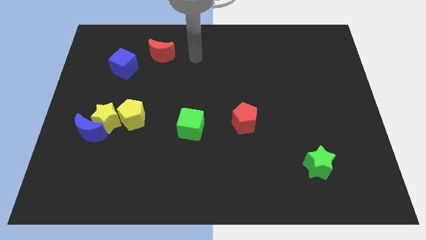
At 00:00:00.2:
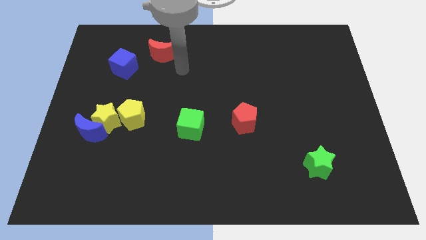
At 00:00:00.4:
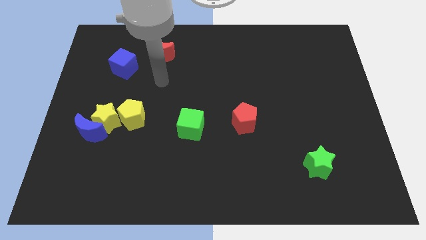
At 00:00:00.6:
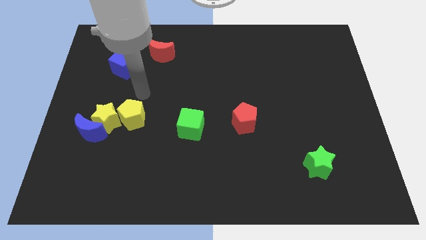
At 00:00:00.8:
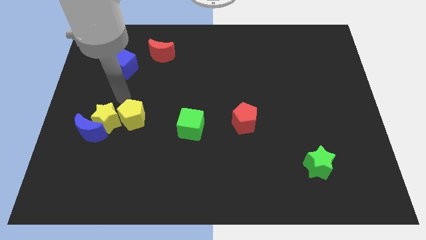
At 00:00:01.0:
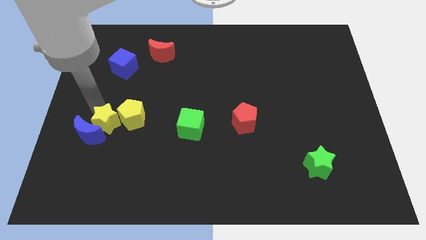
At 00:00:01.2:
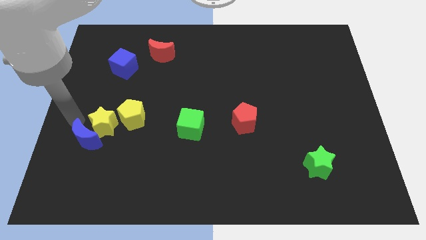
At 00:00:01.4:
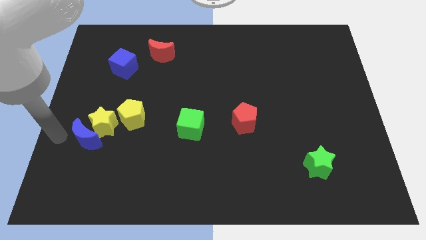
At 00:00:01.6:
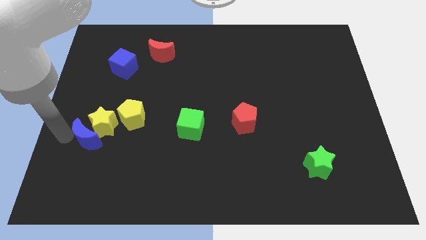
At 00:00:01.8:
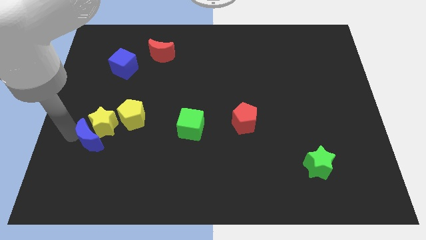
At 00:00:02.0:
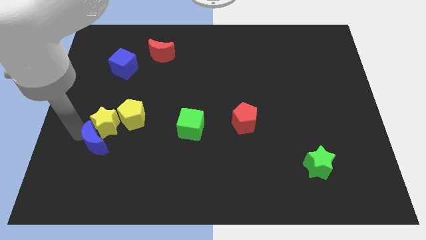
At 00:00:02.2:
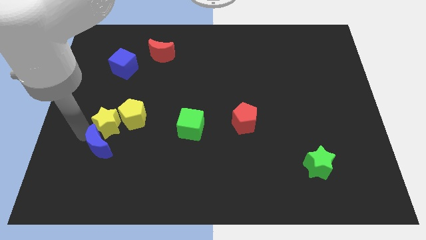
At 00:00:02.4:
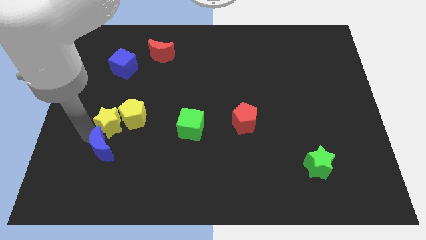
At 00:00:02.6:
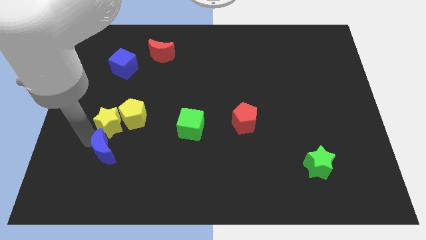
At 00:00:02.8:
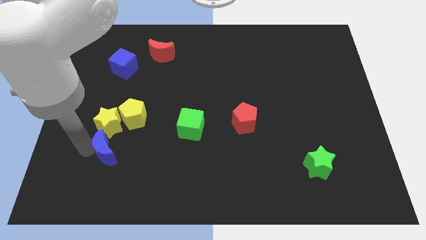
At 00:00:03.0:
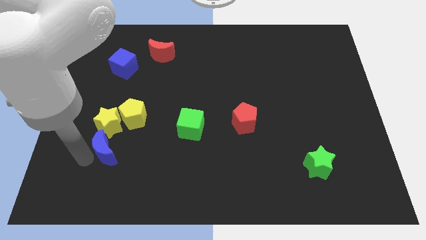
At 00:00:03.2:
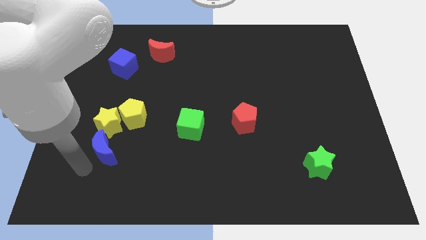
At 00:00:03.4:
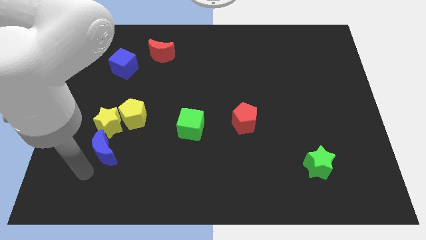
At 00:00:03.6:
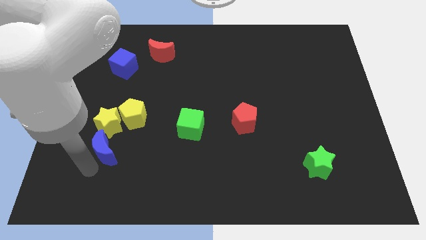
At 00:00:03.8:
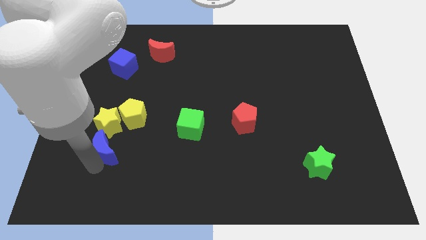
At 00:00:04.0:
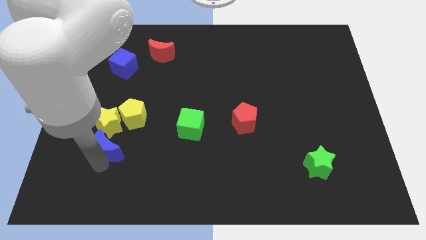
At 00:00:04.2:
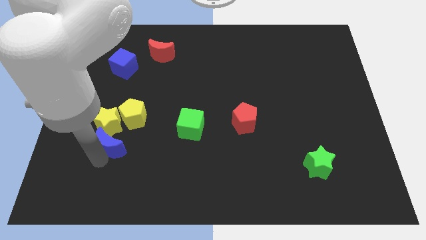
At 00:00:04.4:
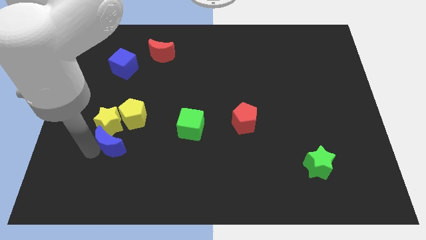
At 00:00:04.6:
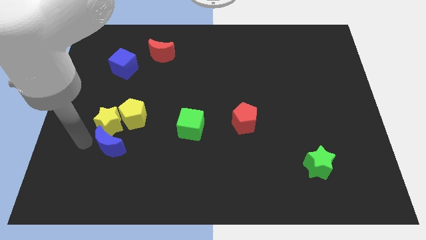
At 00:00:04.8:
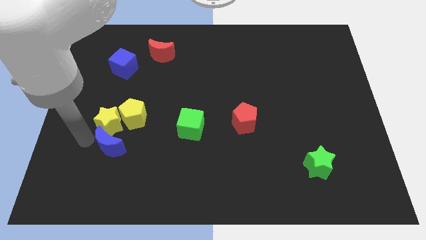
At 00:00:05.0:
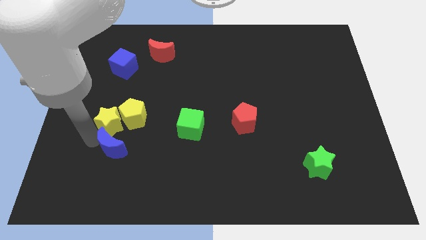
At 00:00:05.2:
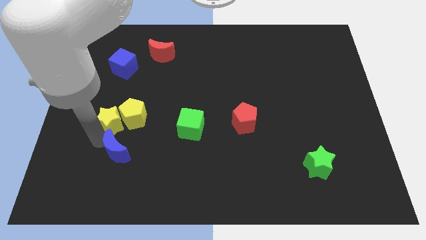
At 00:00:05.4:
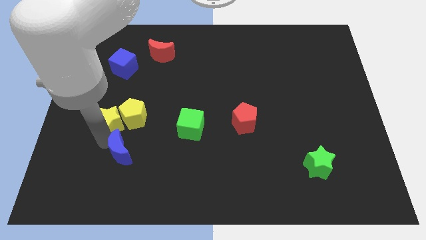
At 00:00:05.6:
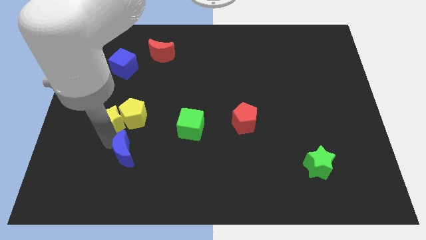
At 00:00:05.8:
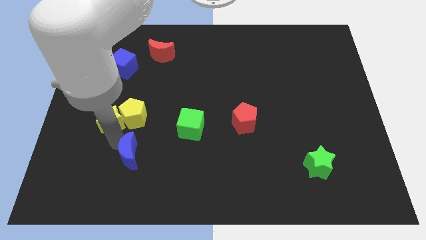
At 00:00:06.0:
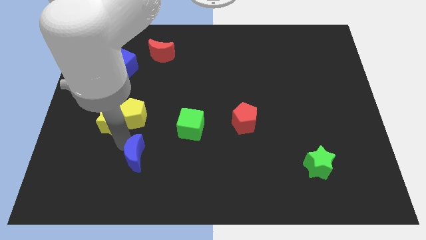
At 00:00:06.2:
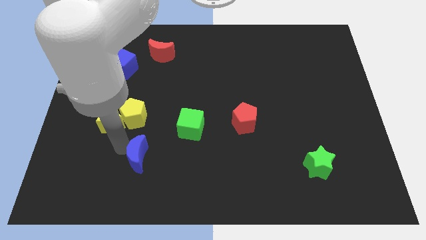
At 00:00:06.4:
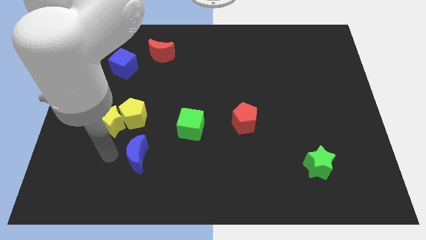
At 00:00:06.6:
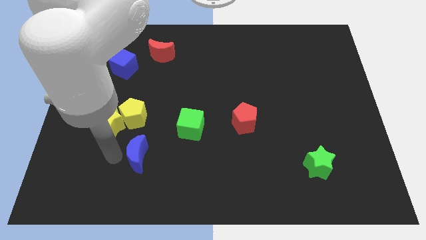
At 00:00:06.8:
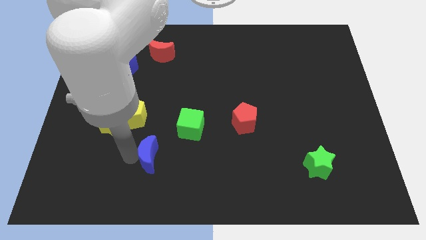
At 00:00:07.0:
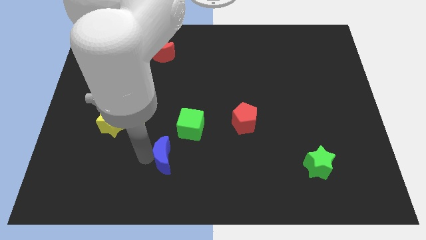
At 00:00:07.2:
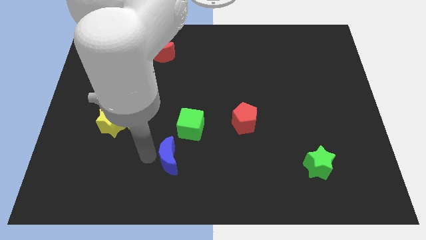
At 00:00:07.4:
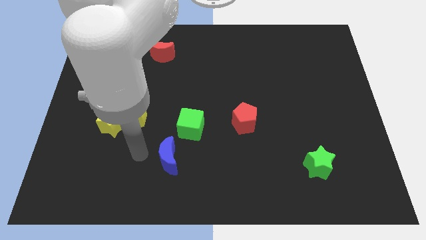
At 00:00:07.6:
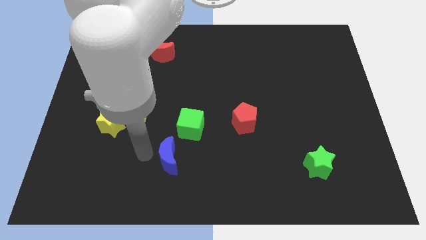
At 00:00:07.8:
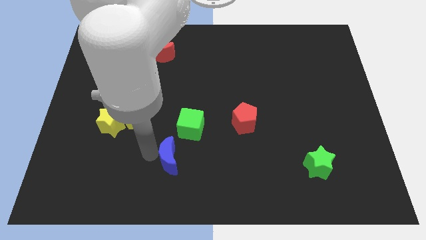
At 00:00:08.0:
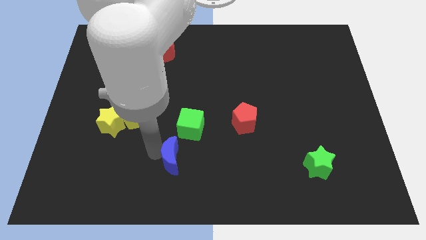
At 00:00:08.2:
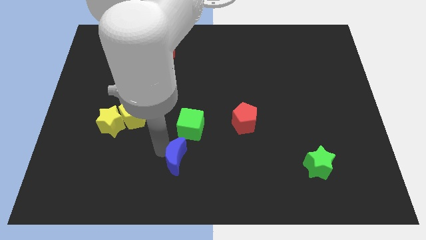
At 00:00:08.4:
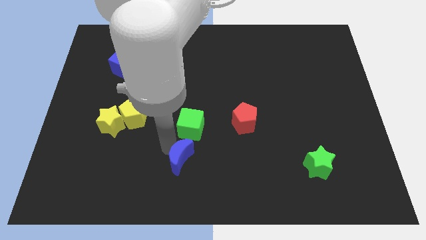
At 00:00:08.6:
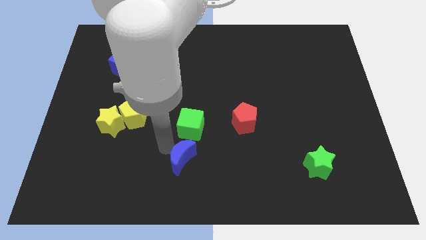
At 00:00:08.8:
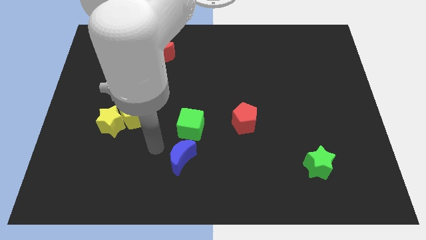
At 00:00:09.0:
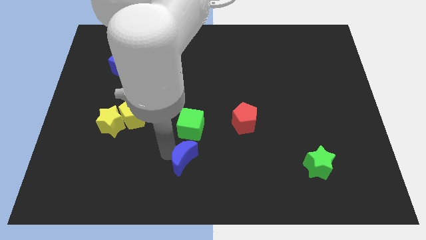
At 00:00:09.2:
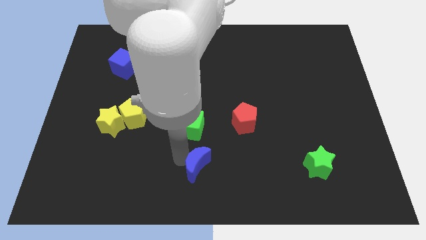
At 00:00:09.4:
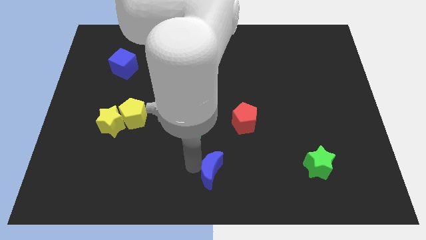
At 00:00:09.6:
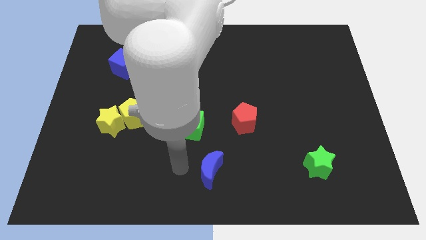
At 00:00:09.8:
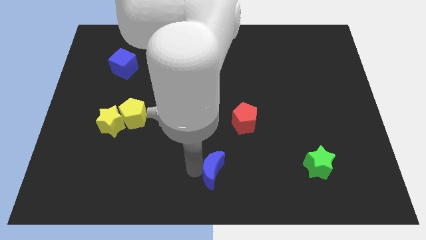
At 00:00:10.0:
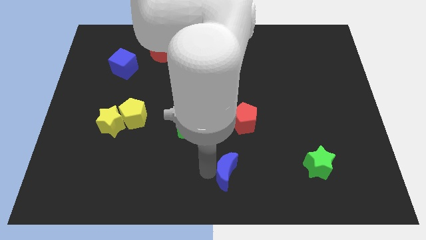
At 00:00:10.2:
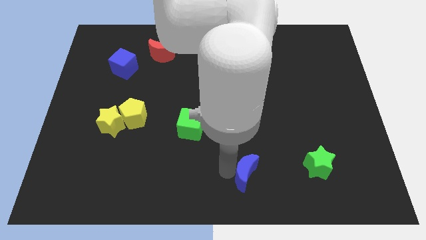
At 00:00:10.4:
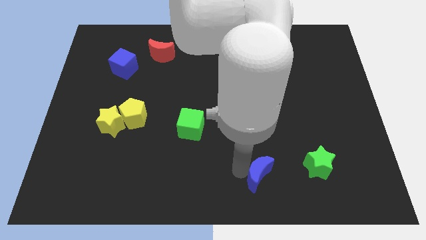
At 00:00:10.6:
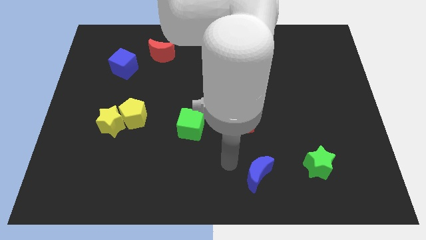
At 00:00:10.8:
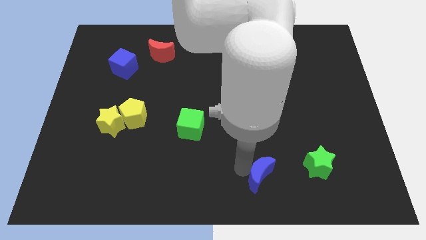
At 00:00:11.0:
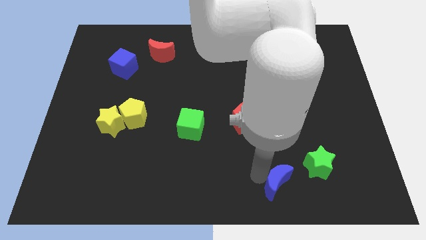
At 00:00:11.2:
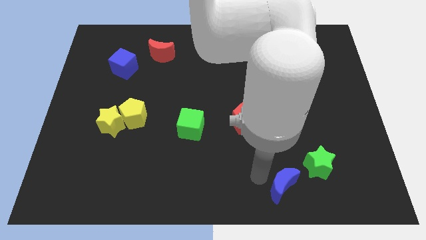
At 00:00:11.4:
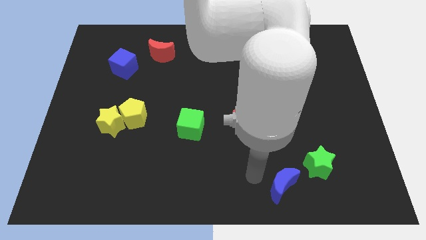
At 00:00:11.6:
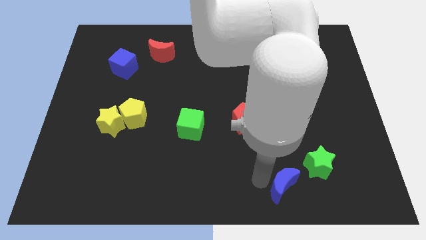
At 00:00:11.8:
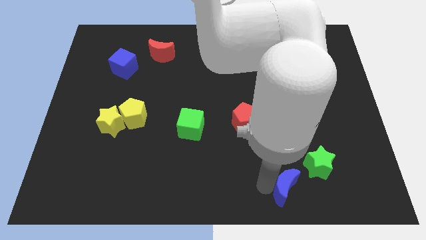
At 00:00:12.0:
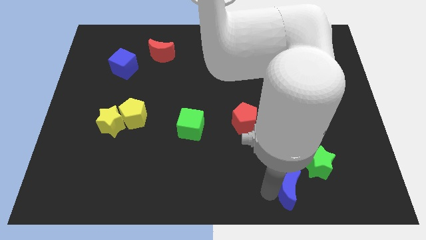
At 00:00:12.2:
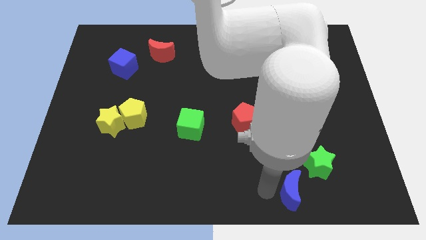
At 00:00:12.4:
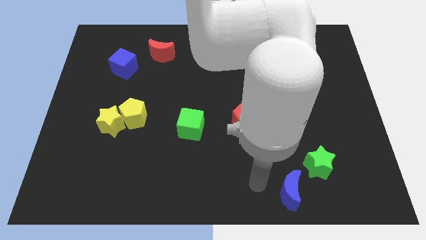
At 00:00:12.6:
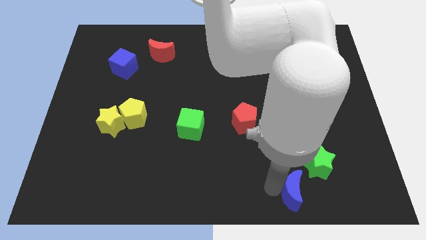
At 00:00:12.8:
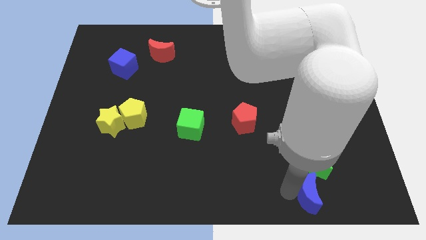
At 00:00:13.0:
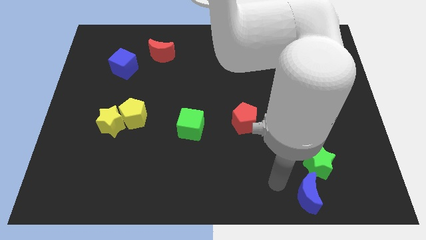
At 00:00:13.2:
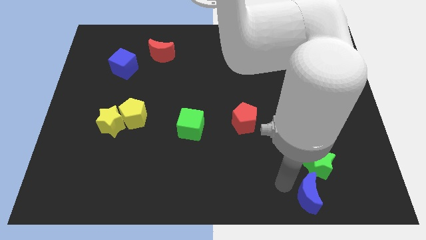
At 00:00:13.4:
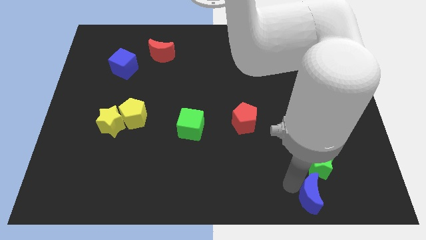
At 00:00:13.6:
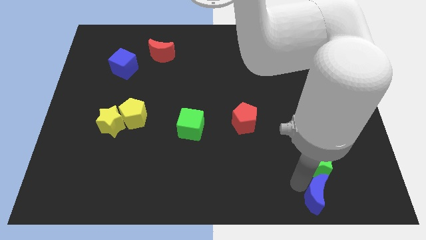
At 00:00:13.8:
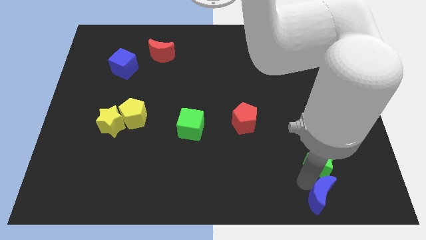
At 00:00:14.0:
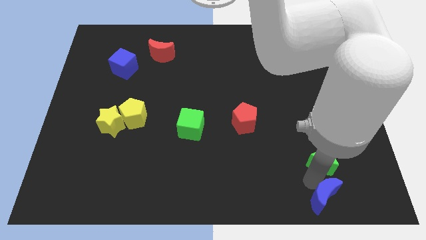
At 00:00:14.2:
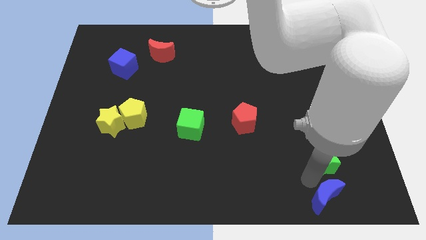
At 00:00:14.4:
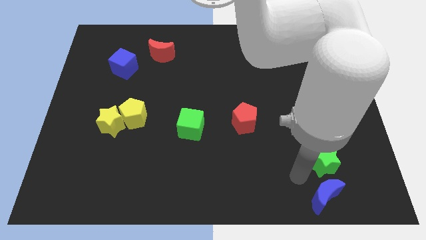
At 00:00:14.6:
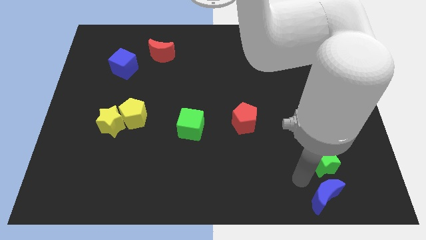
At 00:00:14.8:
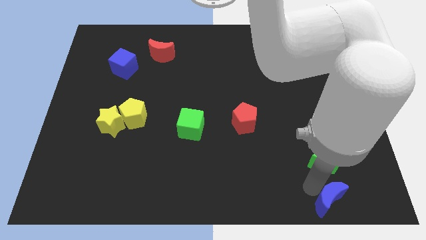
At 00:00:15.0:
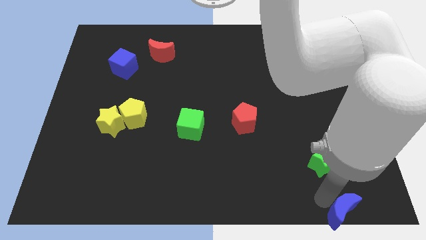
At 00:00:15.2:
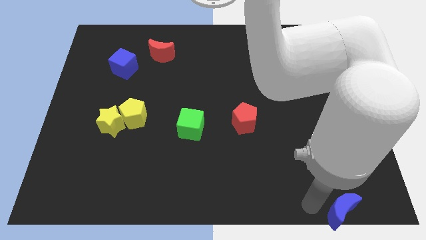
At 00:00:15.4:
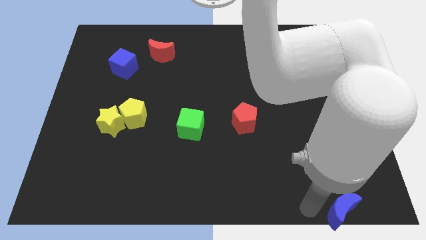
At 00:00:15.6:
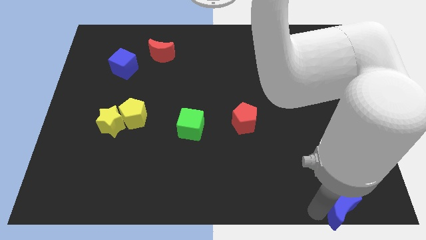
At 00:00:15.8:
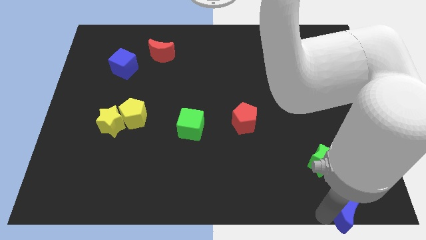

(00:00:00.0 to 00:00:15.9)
push the blue moon to the bottom right of the board

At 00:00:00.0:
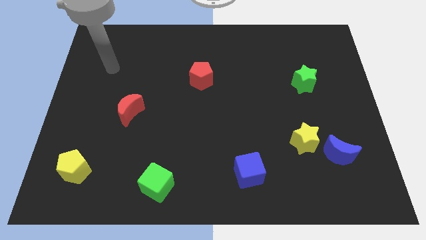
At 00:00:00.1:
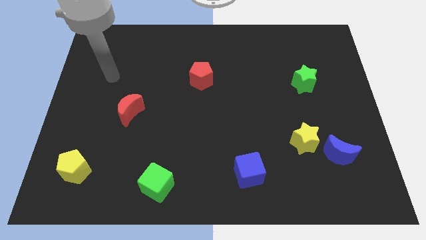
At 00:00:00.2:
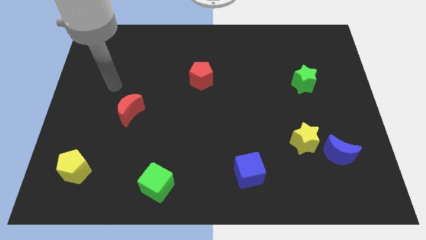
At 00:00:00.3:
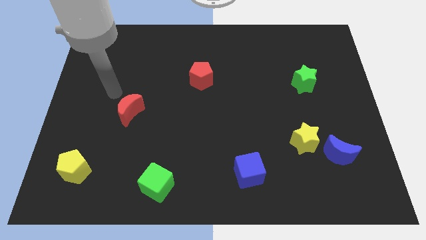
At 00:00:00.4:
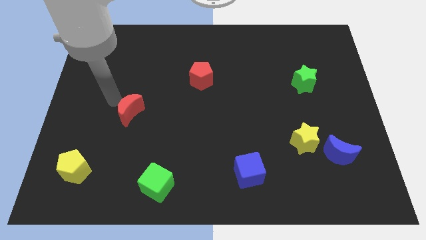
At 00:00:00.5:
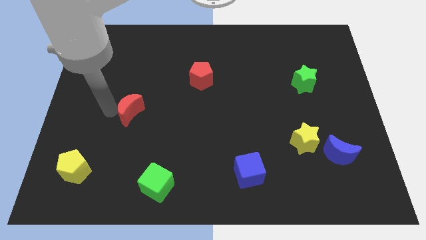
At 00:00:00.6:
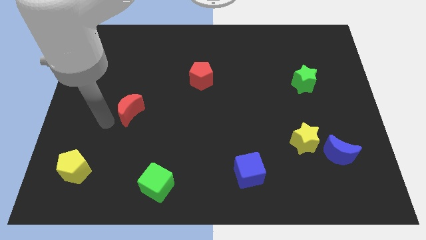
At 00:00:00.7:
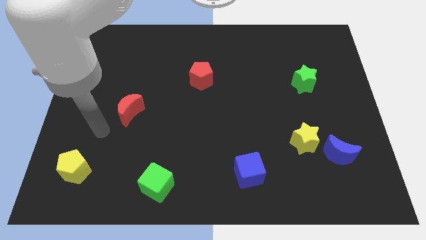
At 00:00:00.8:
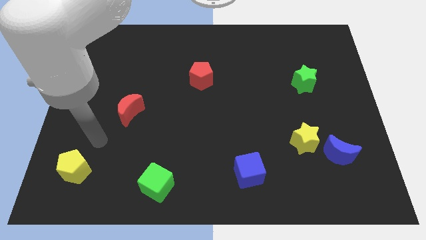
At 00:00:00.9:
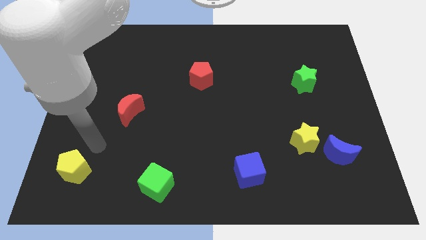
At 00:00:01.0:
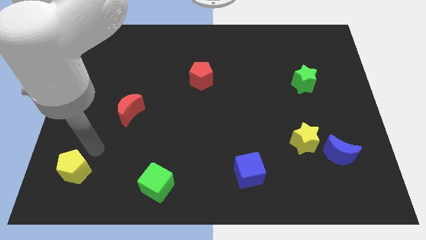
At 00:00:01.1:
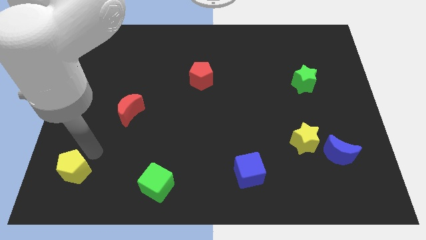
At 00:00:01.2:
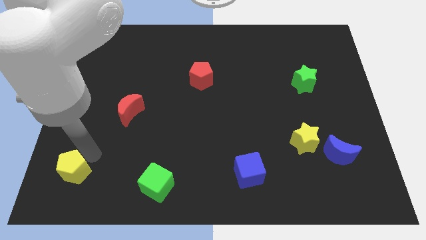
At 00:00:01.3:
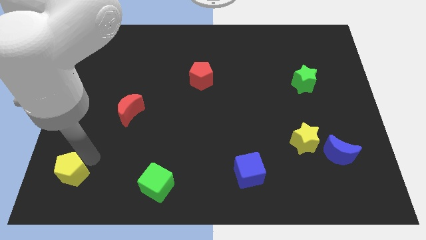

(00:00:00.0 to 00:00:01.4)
push the yellow pentagon to the bottom left corner
